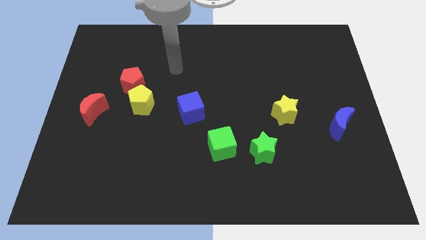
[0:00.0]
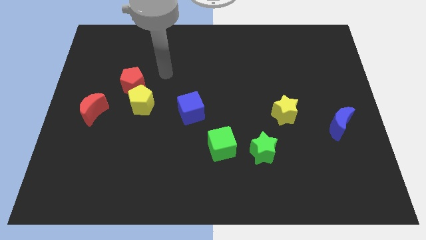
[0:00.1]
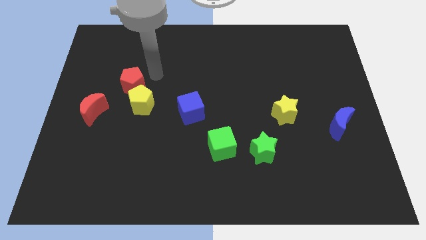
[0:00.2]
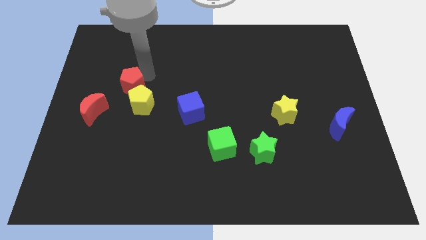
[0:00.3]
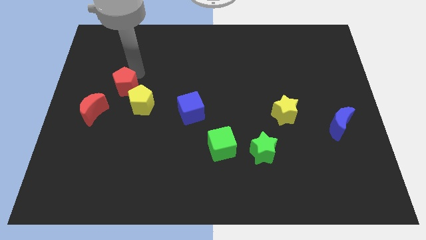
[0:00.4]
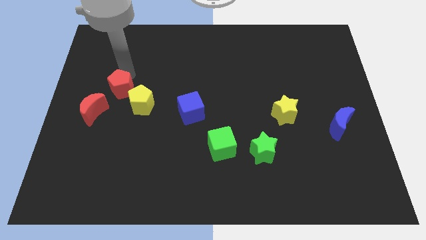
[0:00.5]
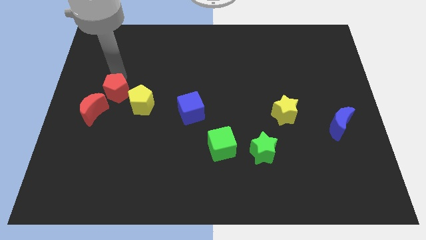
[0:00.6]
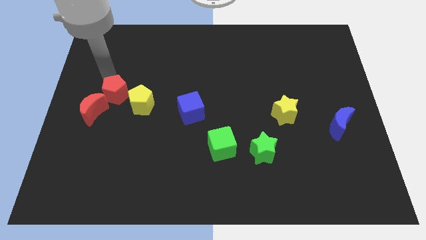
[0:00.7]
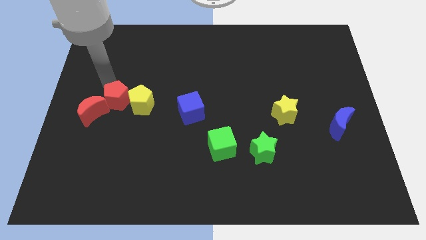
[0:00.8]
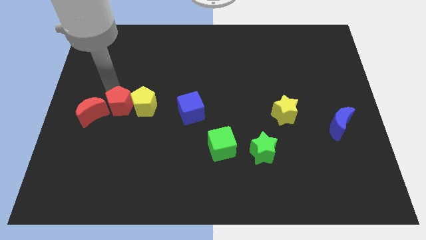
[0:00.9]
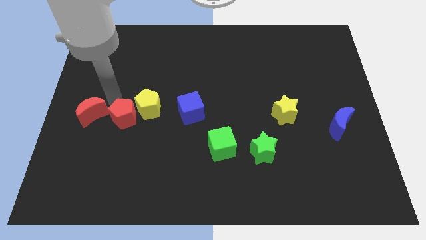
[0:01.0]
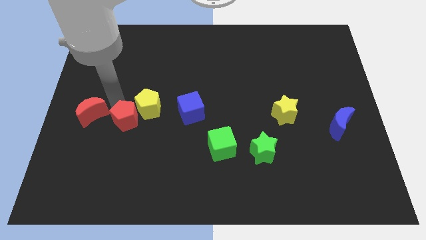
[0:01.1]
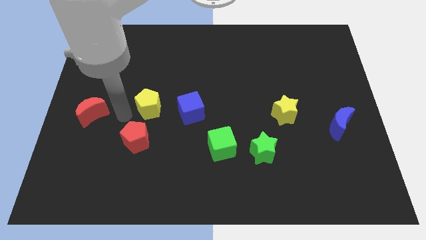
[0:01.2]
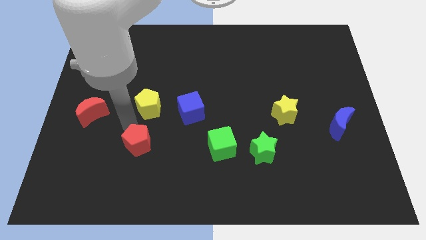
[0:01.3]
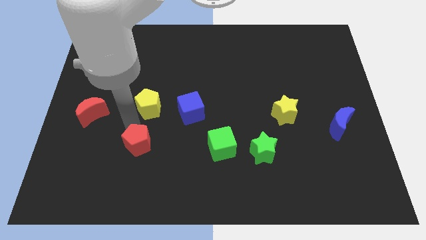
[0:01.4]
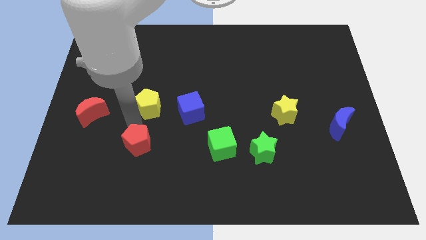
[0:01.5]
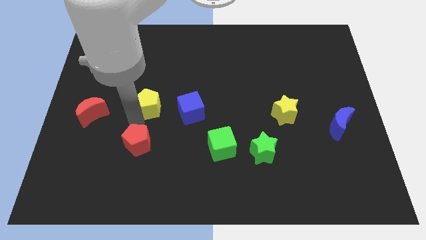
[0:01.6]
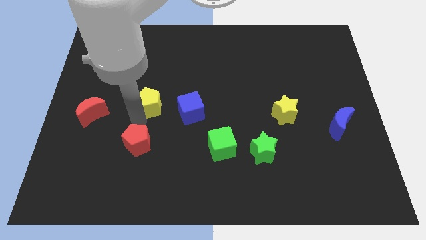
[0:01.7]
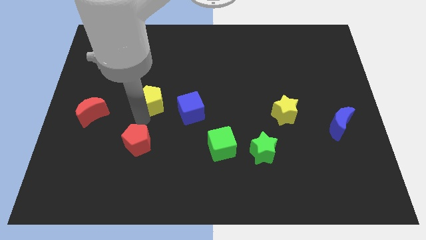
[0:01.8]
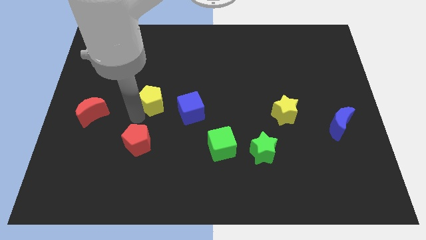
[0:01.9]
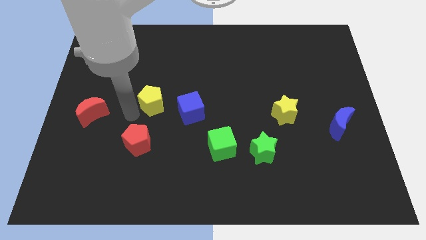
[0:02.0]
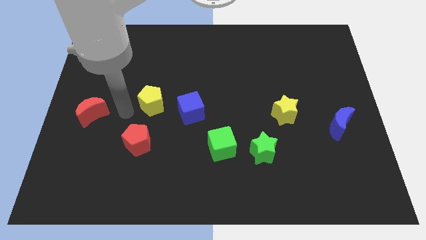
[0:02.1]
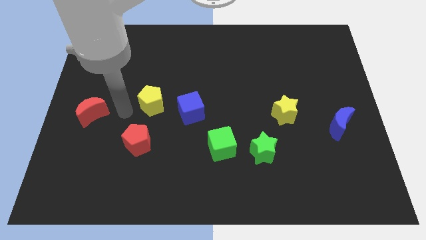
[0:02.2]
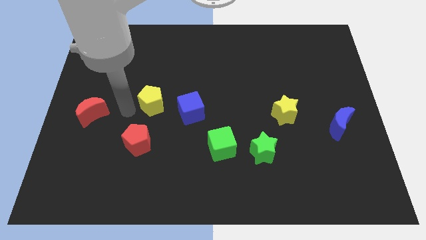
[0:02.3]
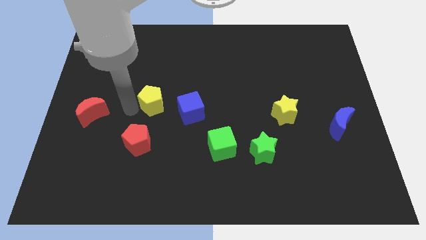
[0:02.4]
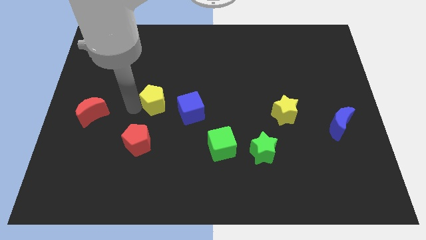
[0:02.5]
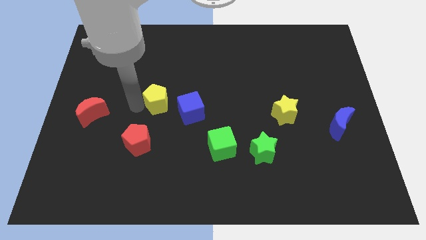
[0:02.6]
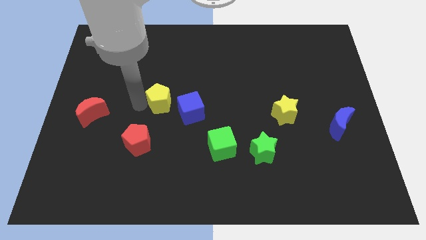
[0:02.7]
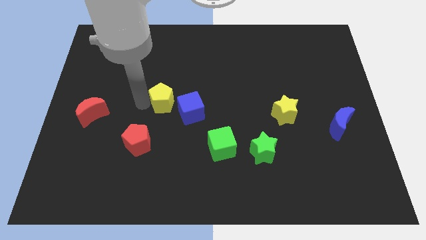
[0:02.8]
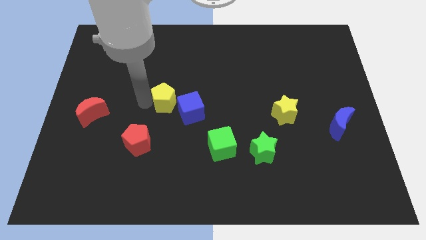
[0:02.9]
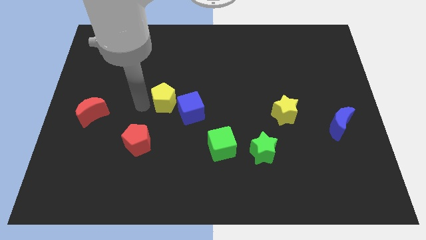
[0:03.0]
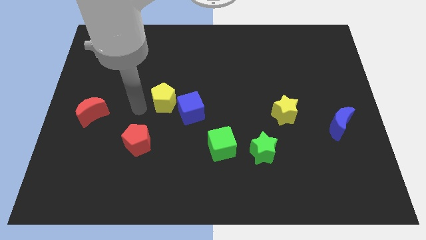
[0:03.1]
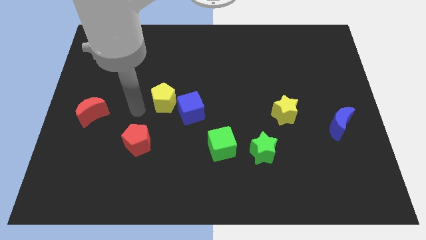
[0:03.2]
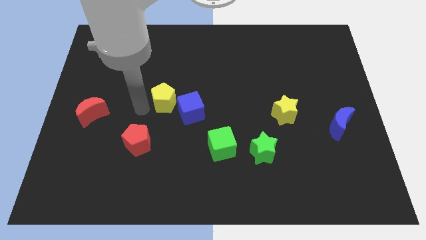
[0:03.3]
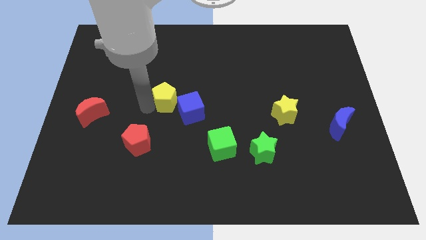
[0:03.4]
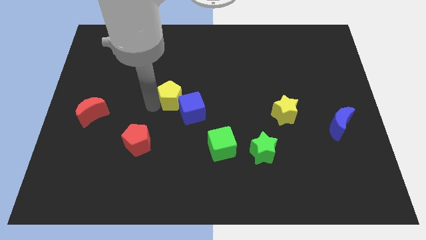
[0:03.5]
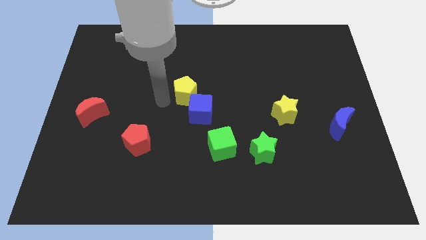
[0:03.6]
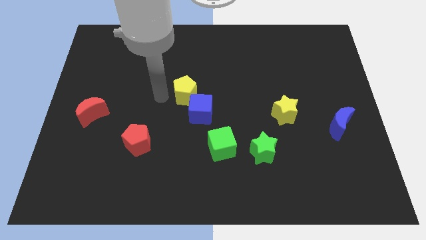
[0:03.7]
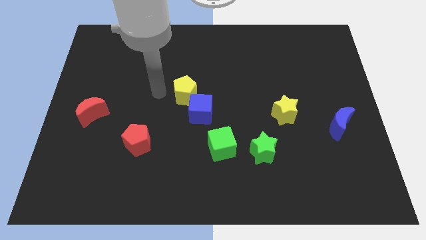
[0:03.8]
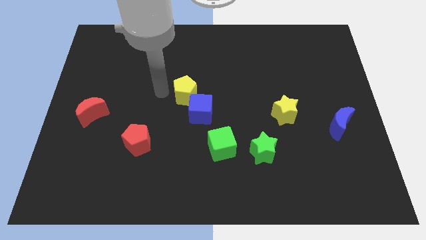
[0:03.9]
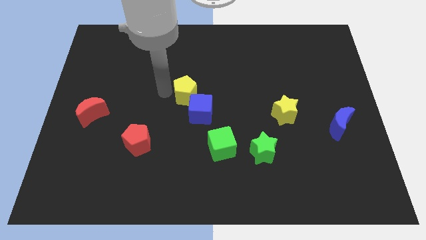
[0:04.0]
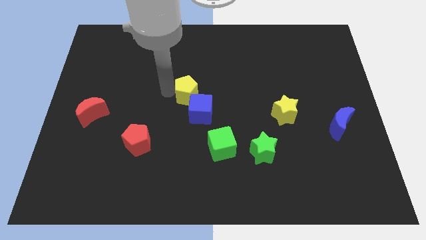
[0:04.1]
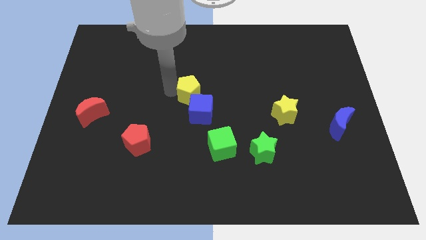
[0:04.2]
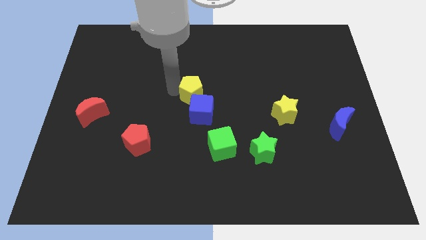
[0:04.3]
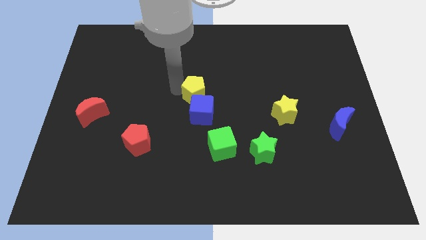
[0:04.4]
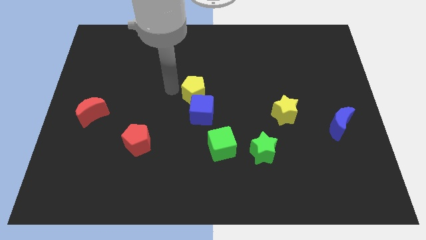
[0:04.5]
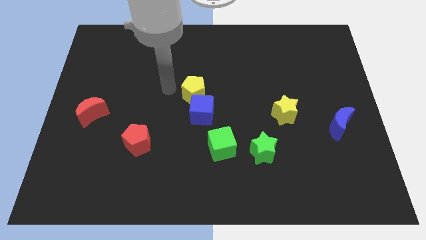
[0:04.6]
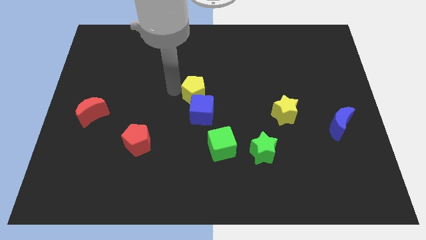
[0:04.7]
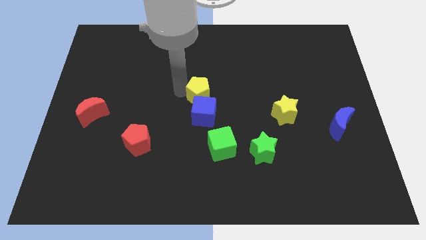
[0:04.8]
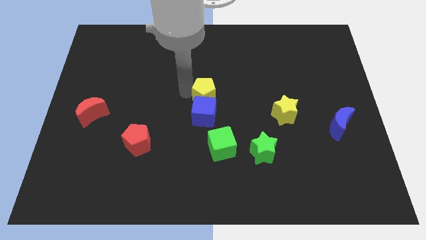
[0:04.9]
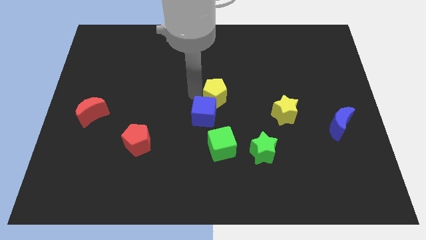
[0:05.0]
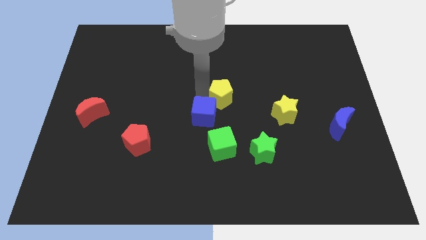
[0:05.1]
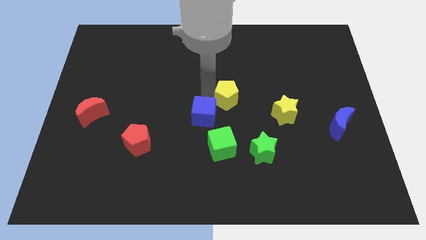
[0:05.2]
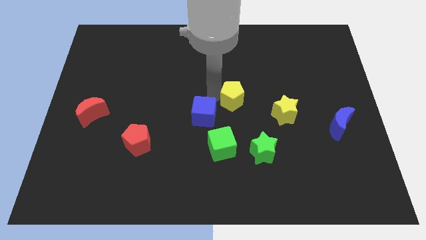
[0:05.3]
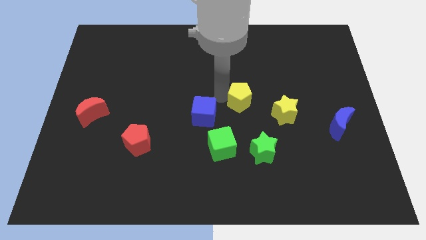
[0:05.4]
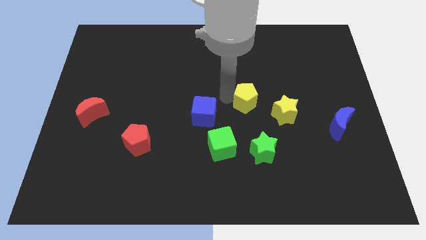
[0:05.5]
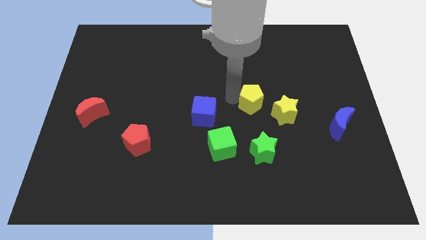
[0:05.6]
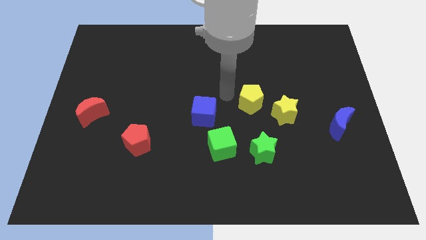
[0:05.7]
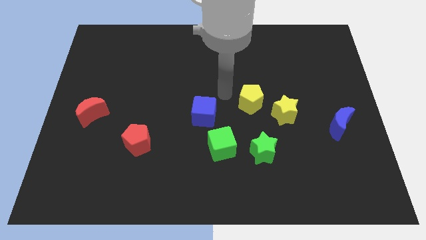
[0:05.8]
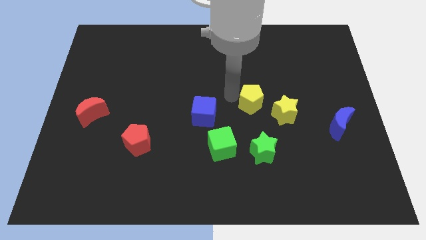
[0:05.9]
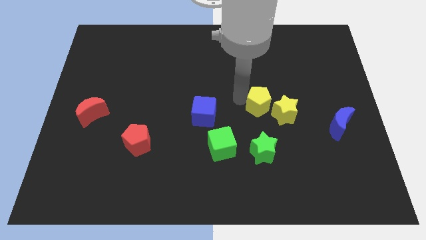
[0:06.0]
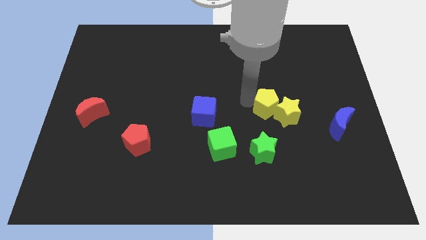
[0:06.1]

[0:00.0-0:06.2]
put the yellow pentagon close to the yellow star

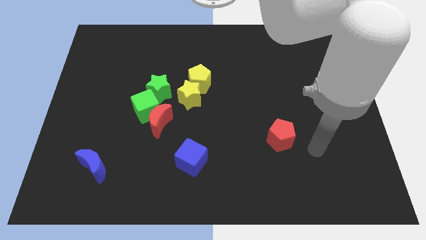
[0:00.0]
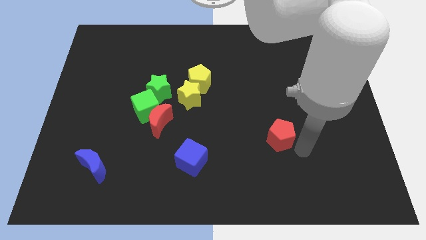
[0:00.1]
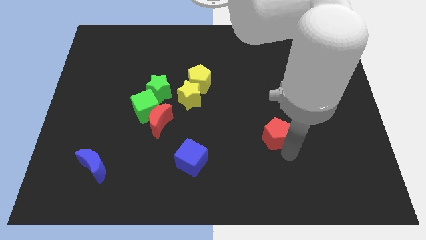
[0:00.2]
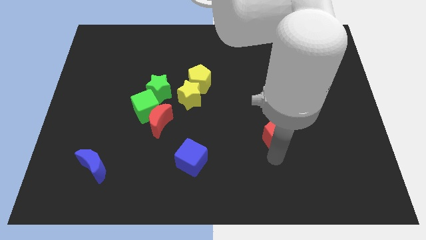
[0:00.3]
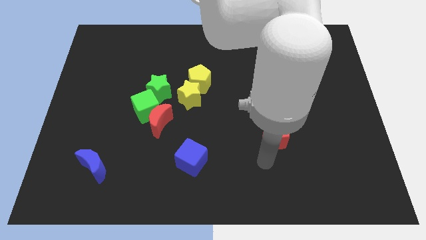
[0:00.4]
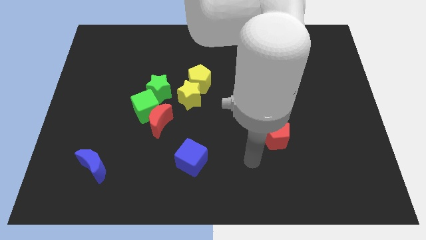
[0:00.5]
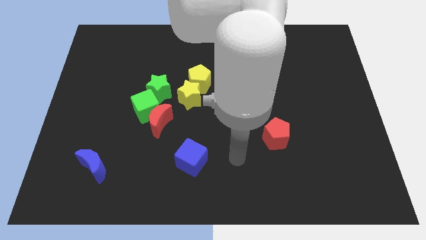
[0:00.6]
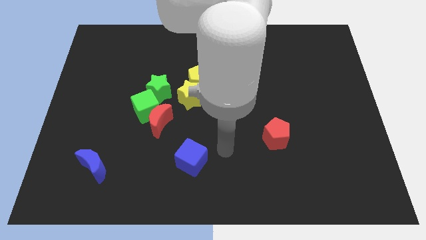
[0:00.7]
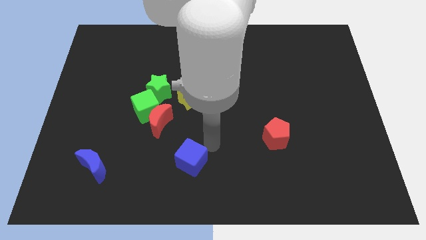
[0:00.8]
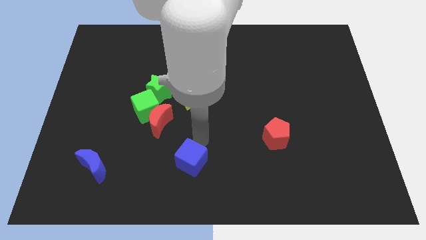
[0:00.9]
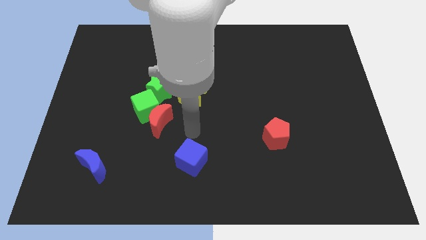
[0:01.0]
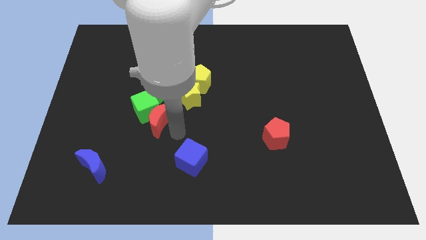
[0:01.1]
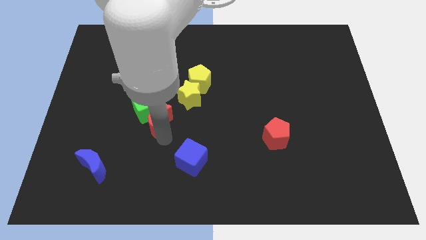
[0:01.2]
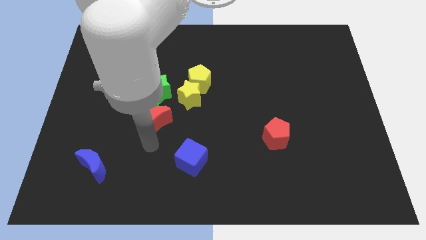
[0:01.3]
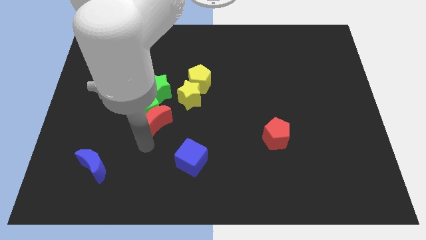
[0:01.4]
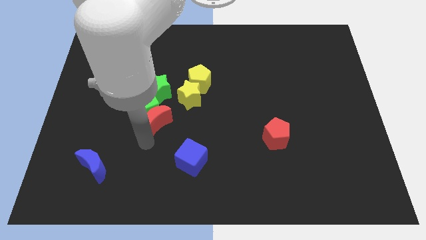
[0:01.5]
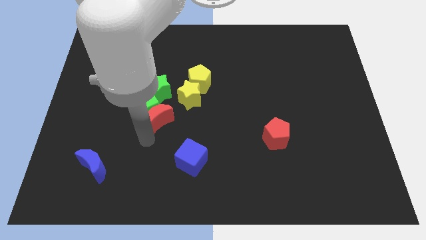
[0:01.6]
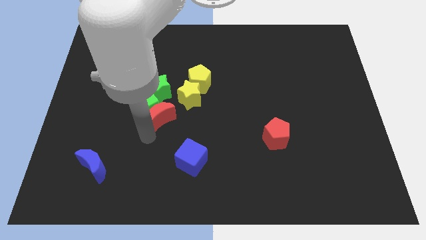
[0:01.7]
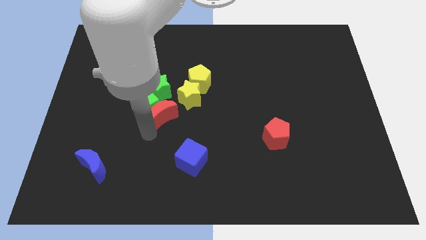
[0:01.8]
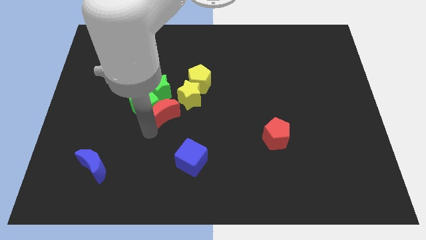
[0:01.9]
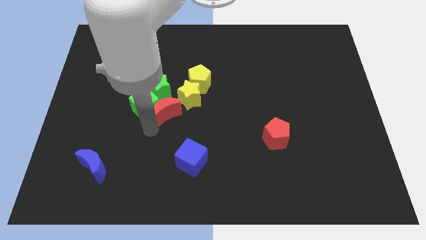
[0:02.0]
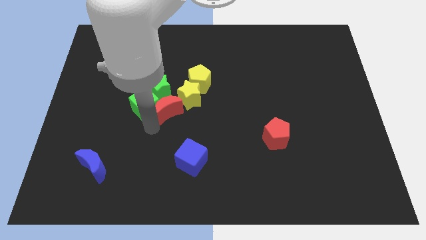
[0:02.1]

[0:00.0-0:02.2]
slide the red moon close to the green star
